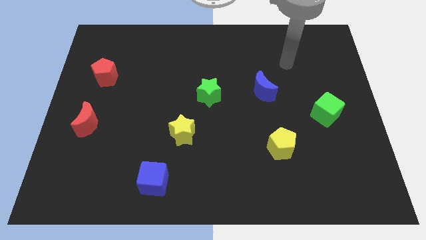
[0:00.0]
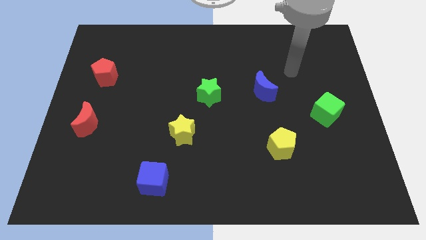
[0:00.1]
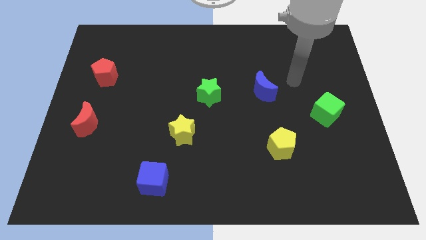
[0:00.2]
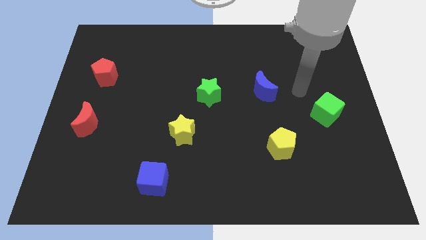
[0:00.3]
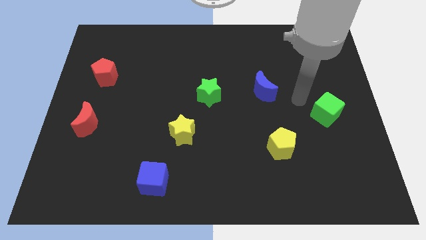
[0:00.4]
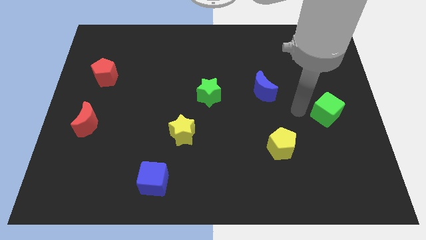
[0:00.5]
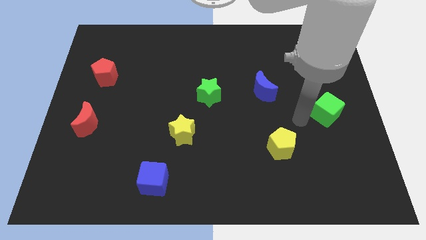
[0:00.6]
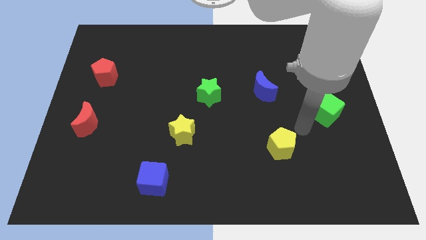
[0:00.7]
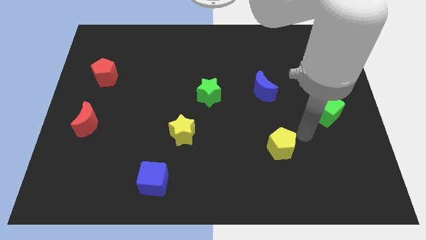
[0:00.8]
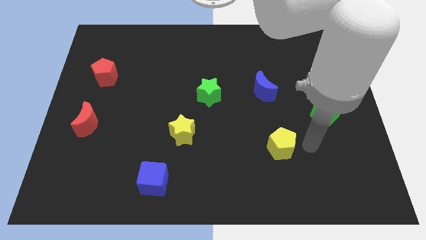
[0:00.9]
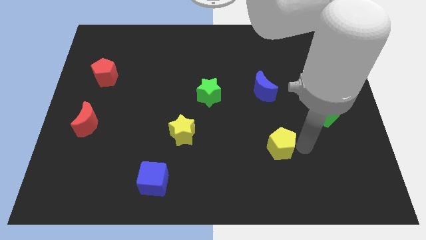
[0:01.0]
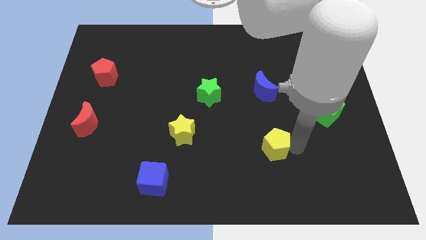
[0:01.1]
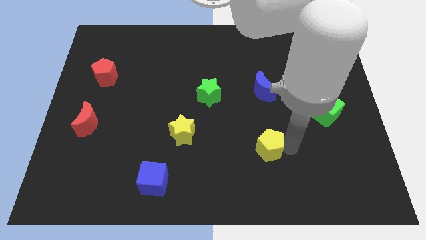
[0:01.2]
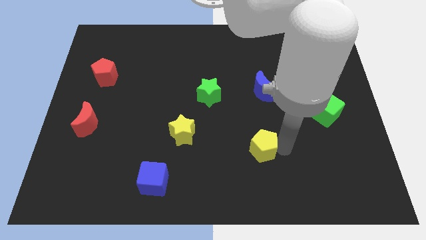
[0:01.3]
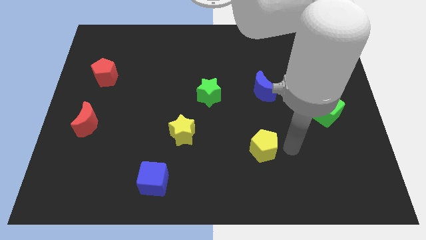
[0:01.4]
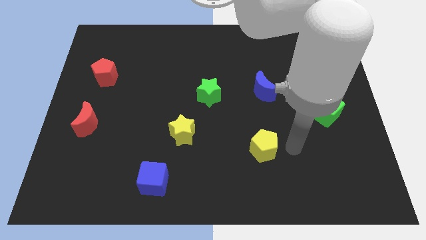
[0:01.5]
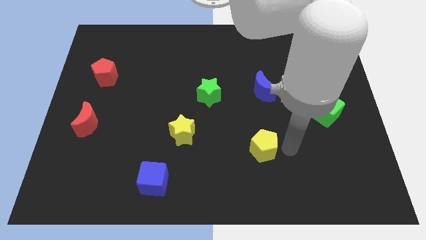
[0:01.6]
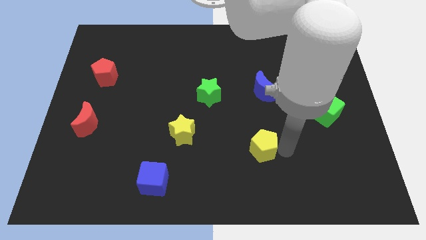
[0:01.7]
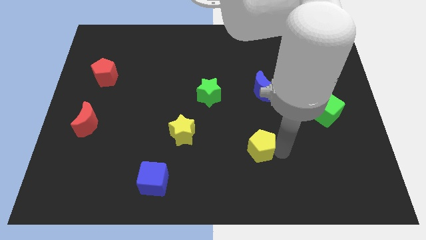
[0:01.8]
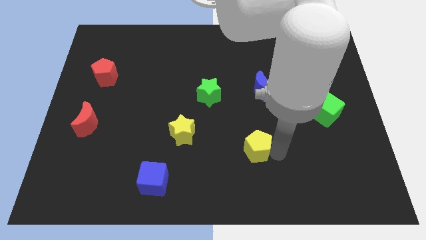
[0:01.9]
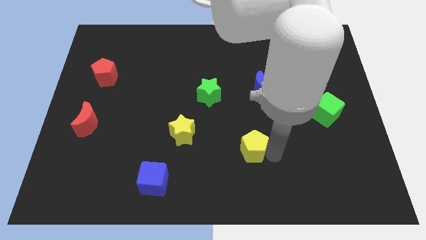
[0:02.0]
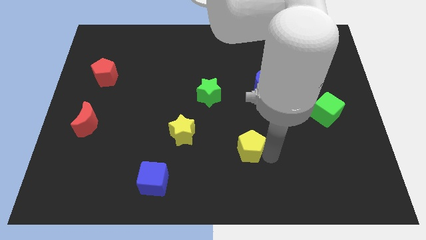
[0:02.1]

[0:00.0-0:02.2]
slide the yellow pentagon somewhat left

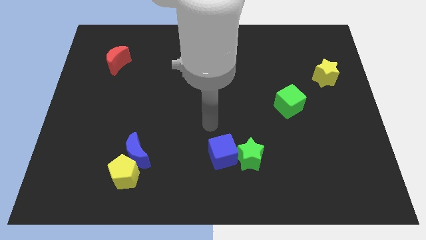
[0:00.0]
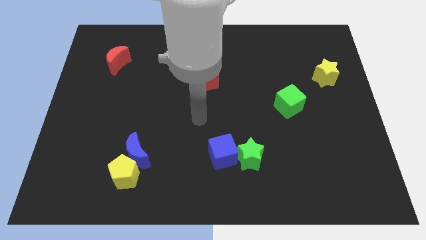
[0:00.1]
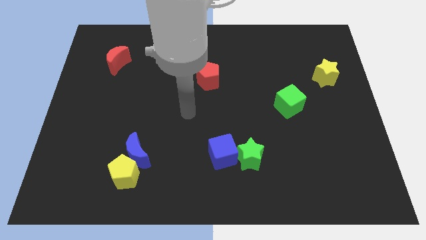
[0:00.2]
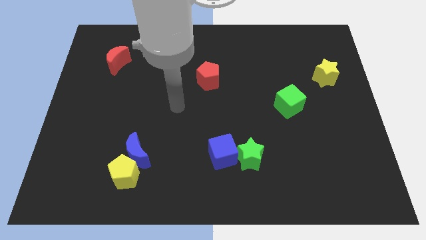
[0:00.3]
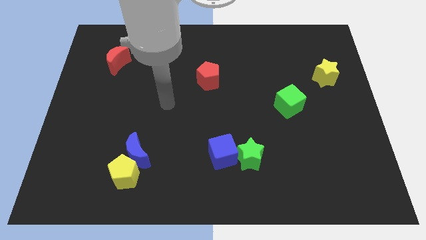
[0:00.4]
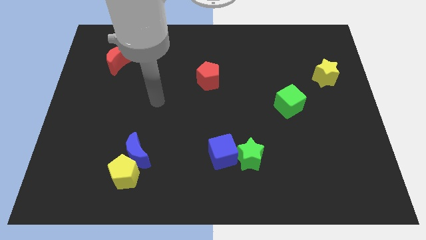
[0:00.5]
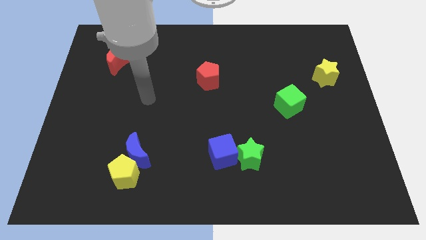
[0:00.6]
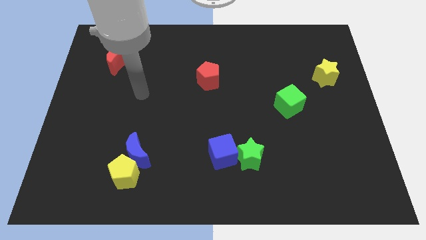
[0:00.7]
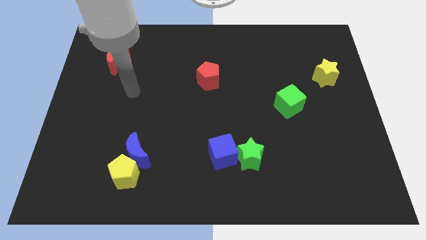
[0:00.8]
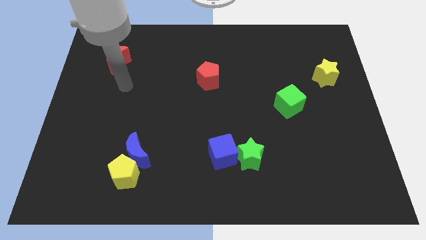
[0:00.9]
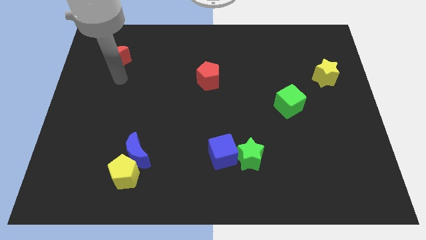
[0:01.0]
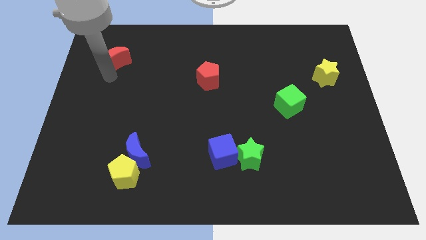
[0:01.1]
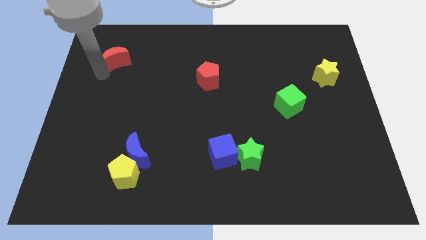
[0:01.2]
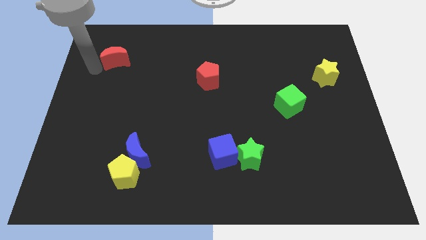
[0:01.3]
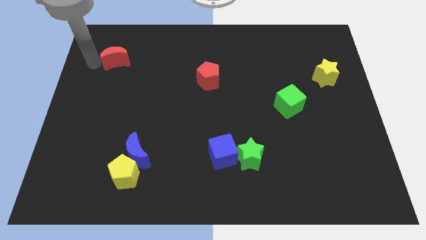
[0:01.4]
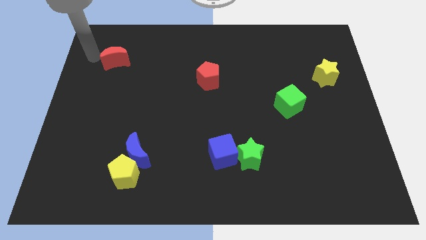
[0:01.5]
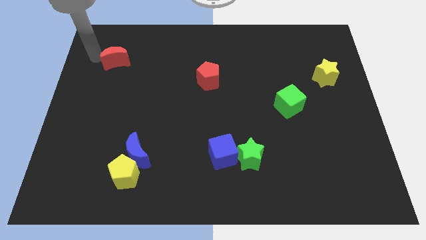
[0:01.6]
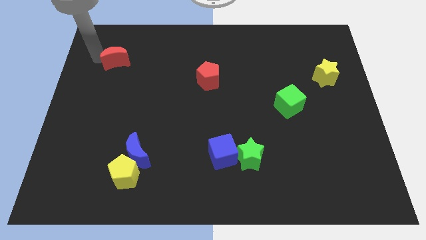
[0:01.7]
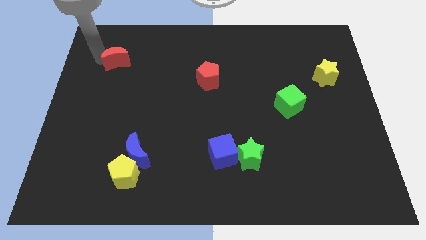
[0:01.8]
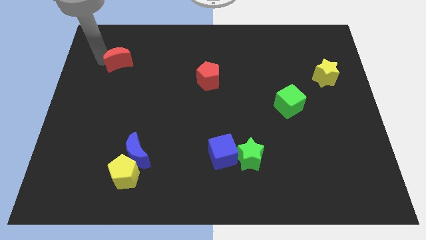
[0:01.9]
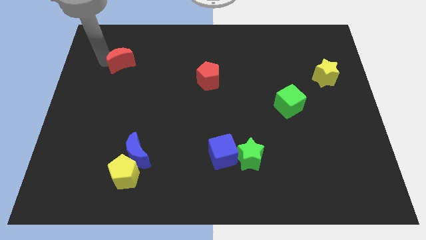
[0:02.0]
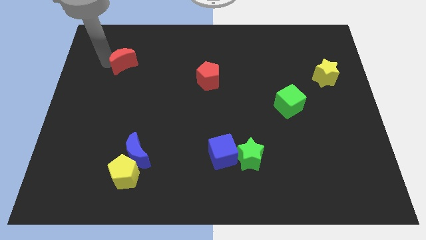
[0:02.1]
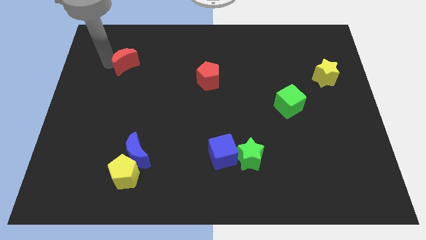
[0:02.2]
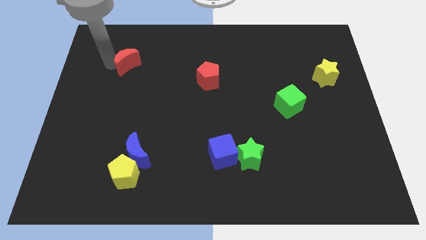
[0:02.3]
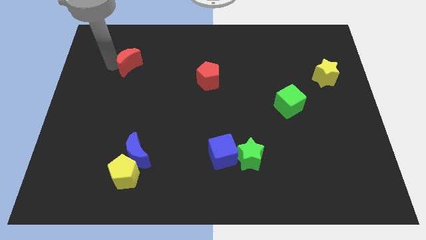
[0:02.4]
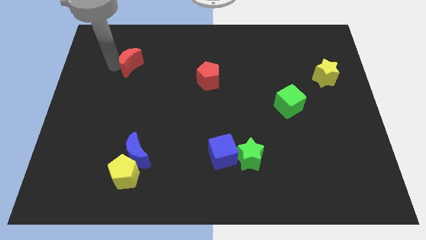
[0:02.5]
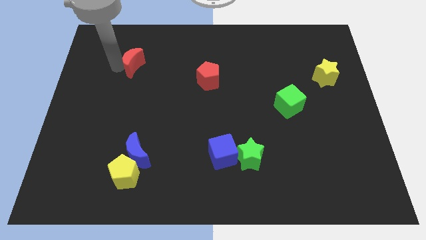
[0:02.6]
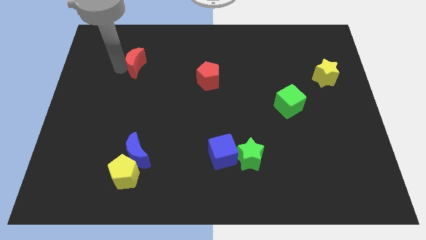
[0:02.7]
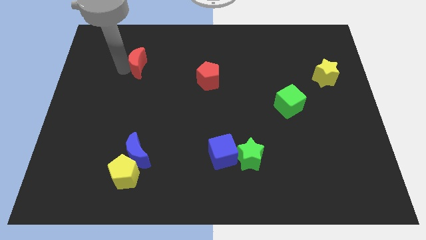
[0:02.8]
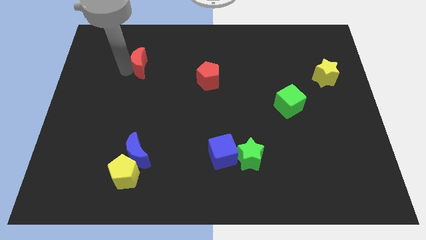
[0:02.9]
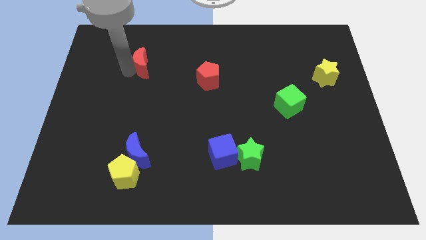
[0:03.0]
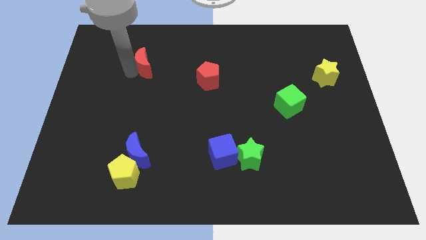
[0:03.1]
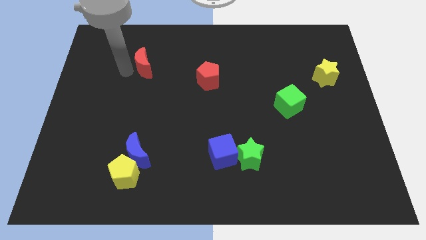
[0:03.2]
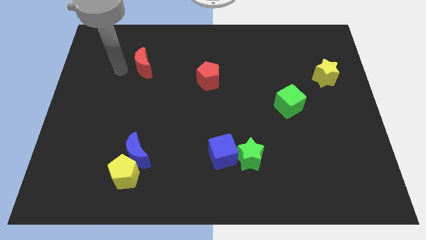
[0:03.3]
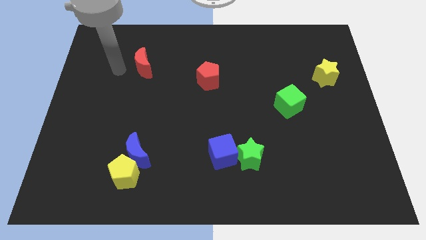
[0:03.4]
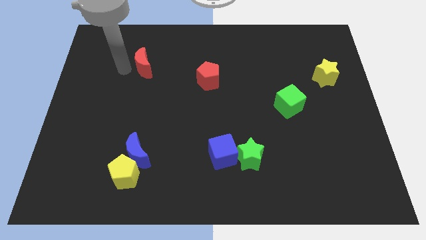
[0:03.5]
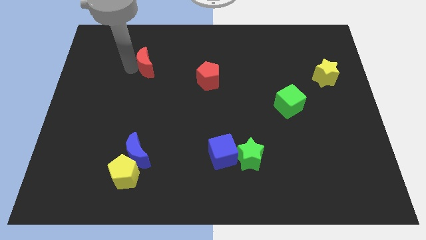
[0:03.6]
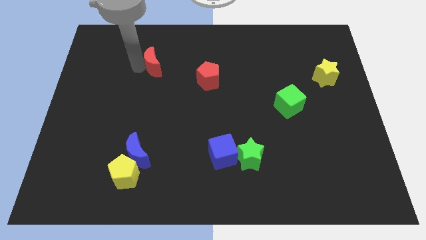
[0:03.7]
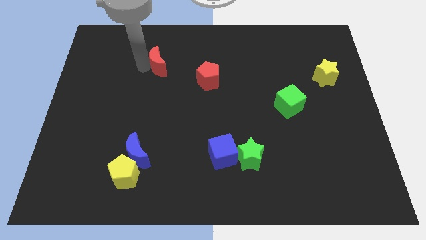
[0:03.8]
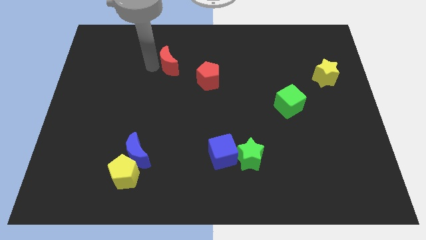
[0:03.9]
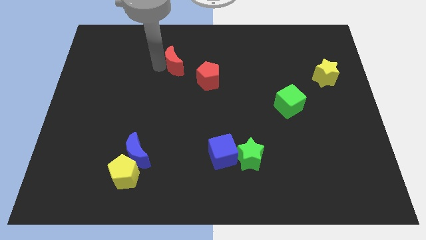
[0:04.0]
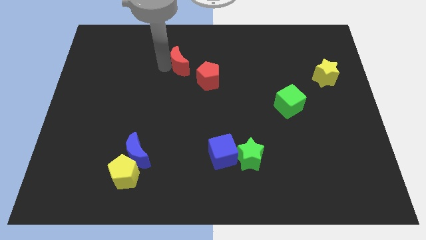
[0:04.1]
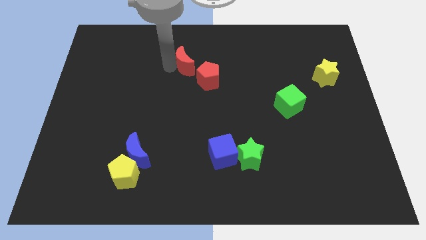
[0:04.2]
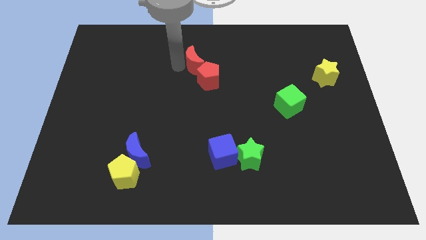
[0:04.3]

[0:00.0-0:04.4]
slide the red moon to the right

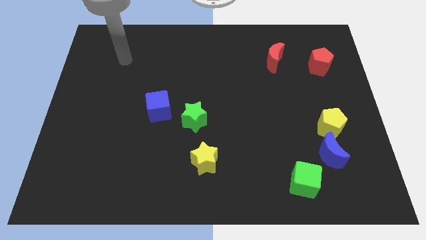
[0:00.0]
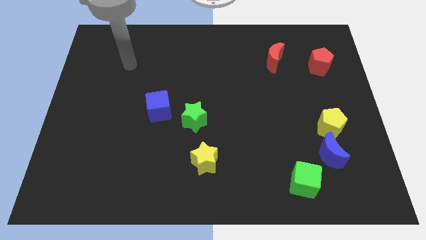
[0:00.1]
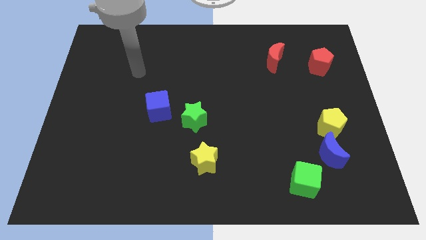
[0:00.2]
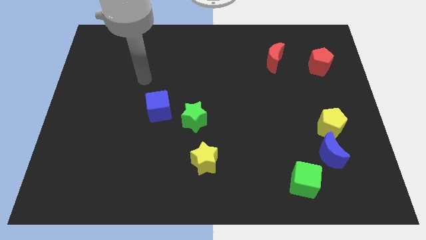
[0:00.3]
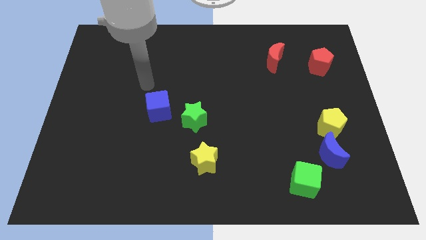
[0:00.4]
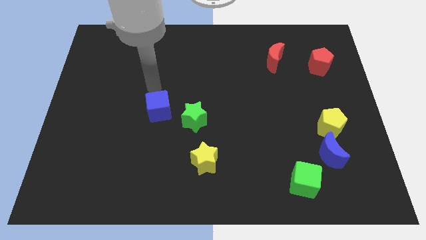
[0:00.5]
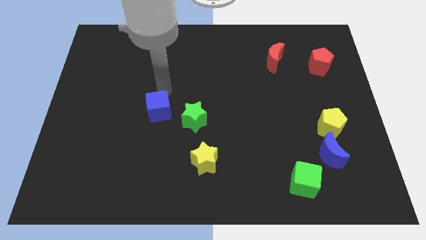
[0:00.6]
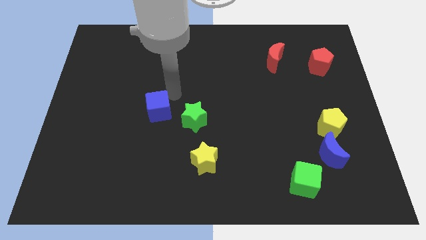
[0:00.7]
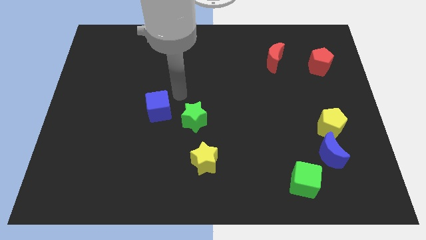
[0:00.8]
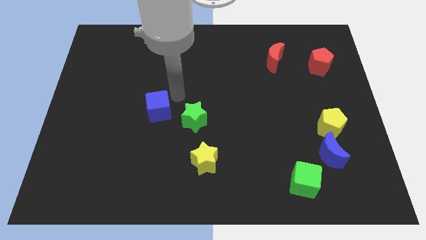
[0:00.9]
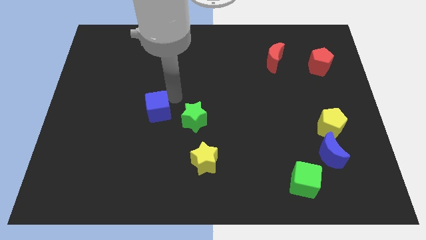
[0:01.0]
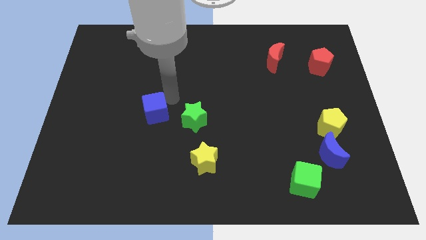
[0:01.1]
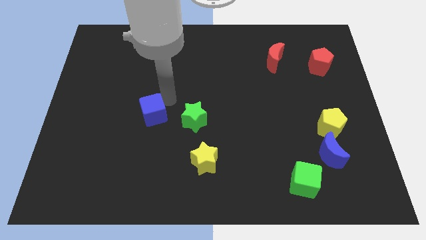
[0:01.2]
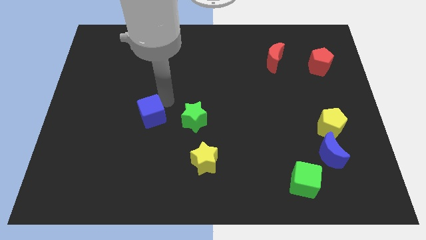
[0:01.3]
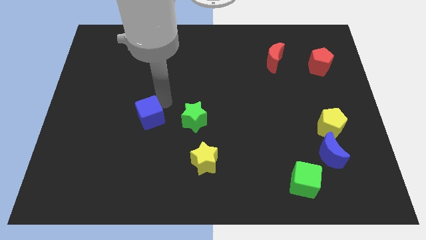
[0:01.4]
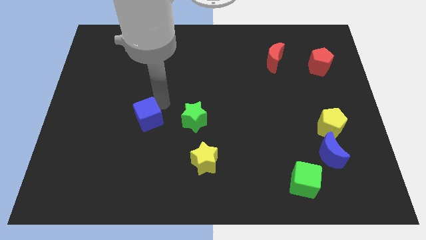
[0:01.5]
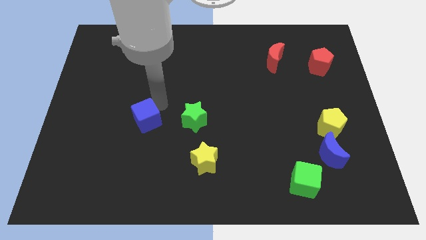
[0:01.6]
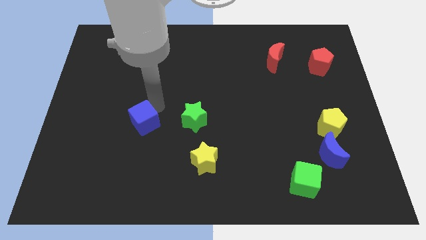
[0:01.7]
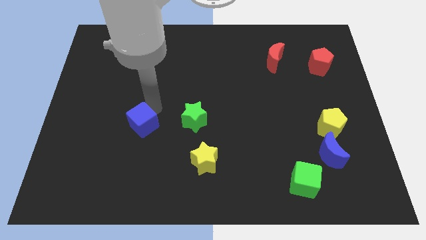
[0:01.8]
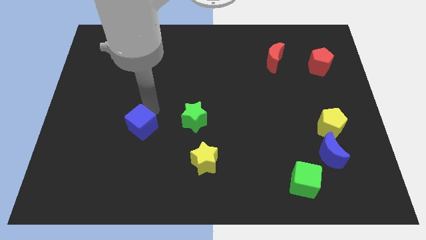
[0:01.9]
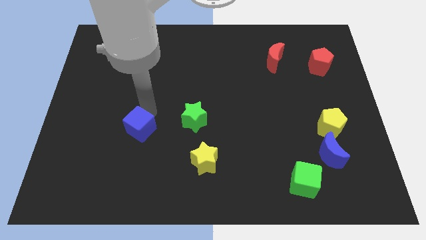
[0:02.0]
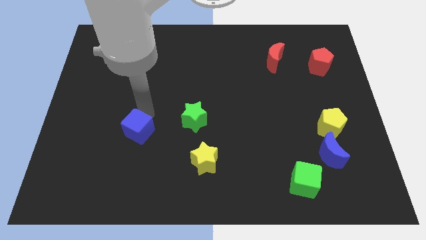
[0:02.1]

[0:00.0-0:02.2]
move the blue cube somewhat down and then to the left
